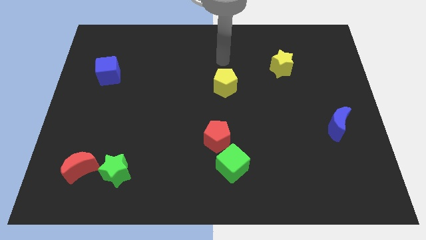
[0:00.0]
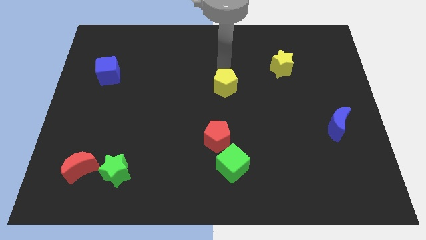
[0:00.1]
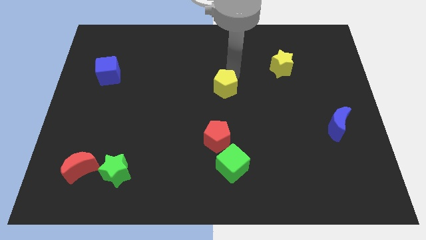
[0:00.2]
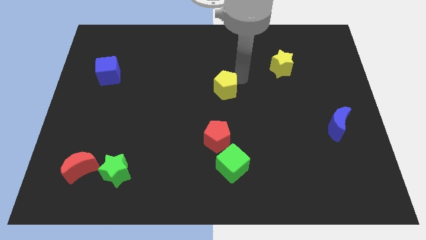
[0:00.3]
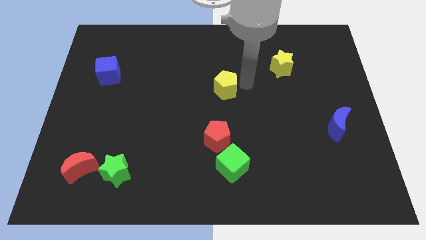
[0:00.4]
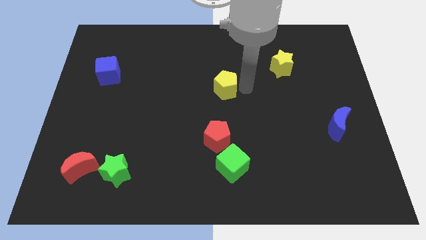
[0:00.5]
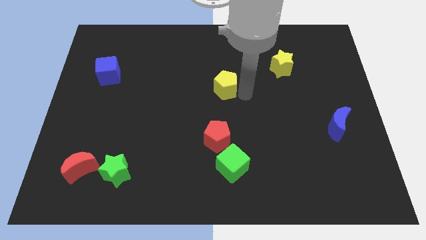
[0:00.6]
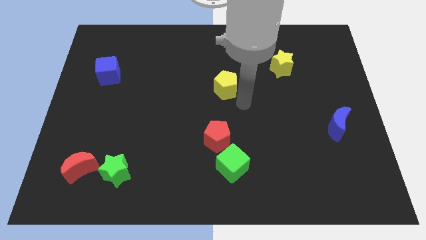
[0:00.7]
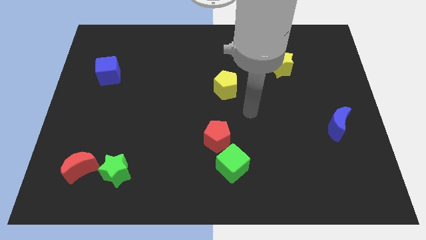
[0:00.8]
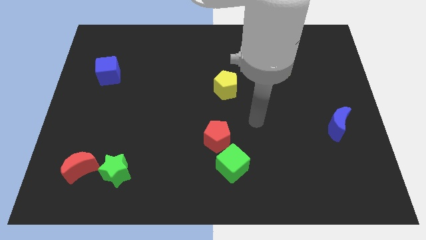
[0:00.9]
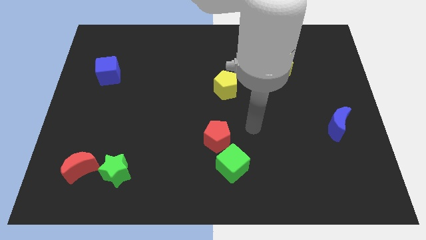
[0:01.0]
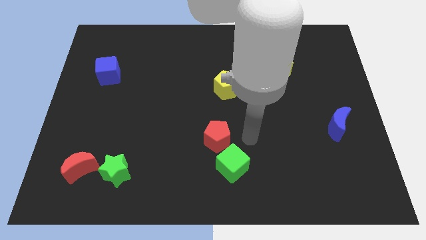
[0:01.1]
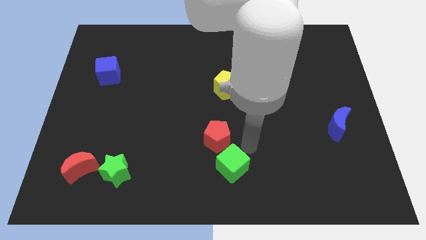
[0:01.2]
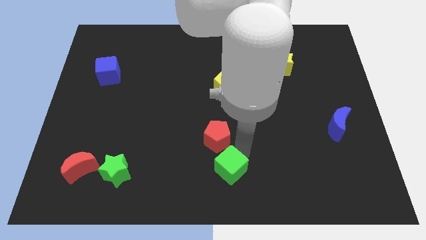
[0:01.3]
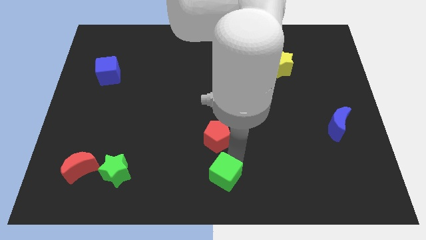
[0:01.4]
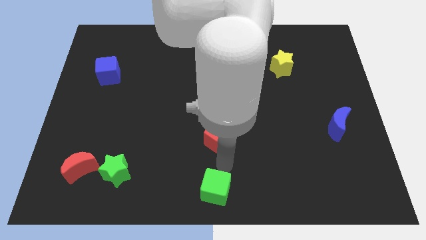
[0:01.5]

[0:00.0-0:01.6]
separate the red pentagon from the green cube

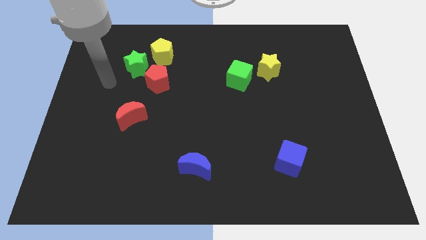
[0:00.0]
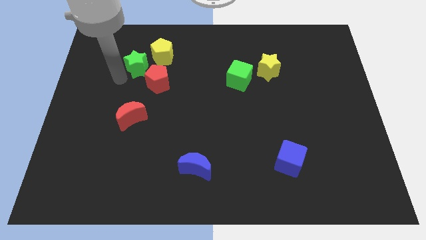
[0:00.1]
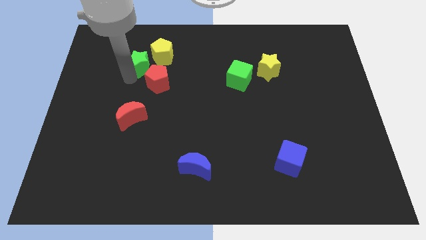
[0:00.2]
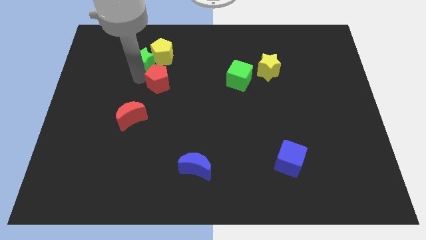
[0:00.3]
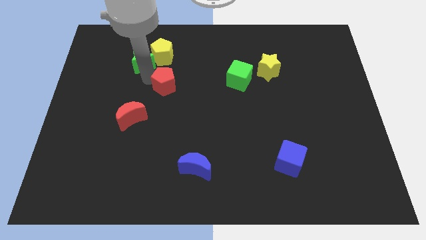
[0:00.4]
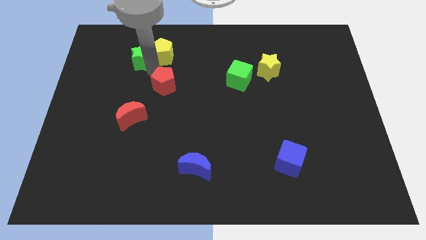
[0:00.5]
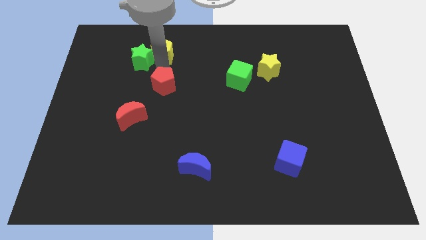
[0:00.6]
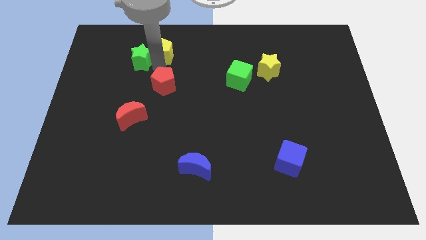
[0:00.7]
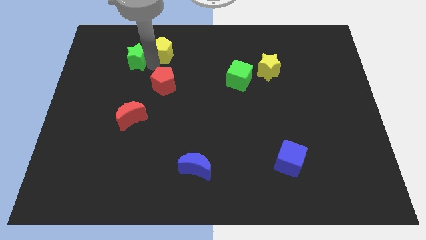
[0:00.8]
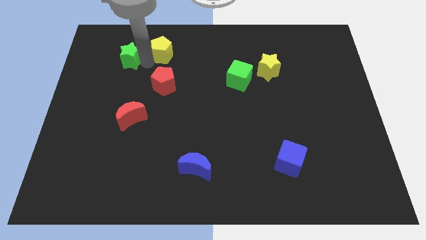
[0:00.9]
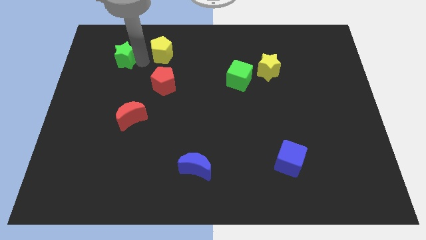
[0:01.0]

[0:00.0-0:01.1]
move the green star away from the yellow pentagon and red pentagon

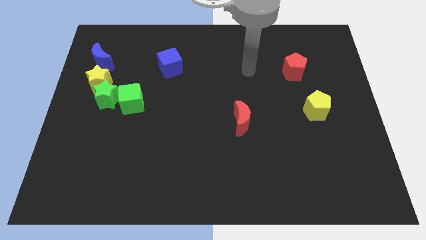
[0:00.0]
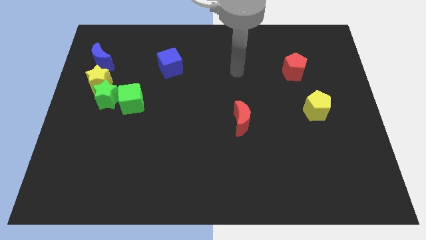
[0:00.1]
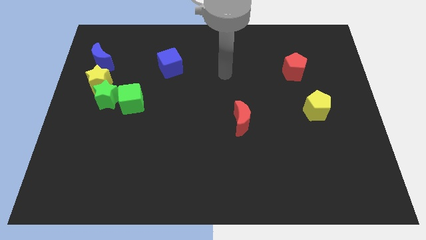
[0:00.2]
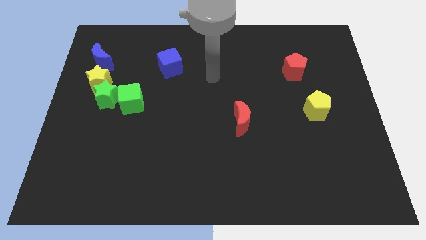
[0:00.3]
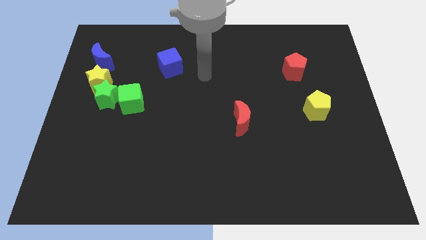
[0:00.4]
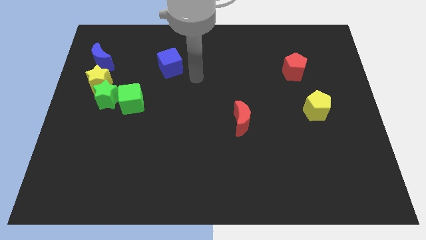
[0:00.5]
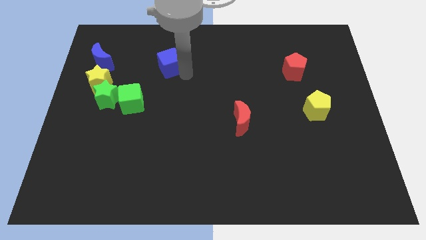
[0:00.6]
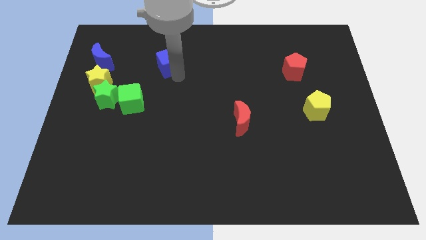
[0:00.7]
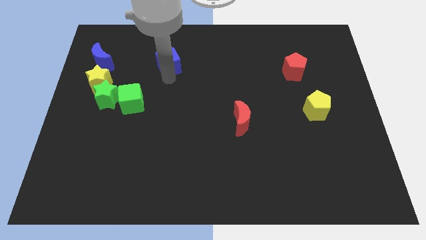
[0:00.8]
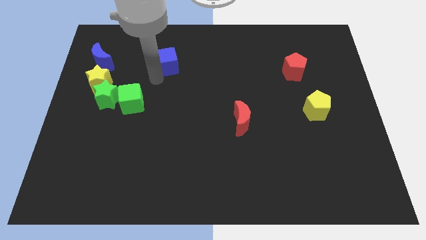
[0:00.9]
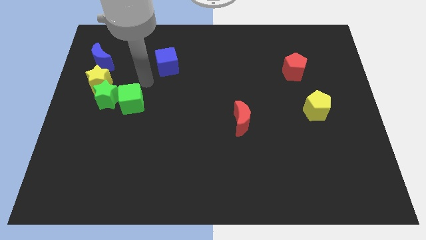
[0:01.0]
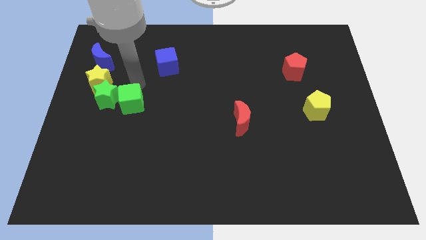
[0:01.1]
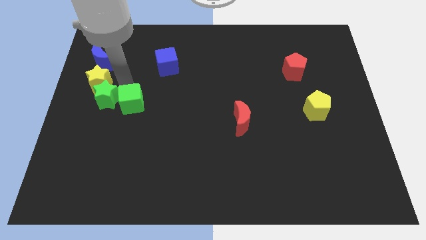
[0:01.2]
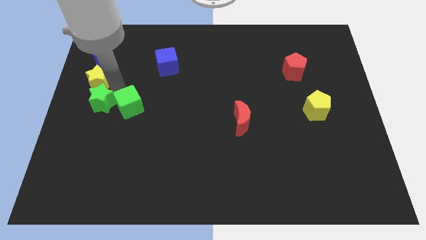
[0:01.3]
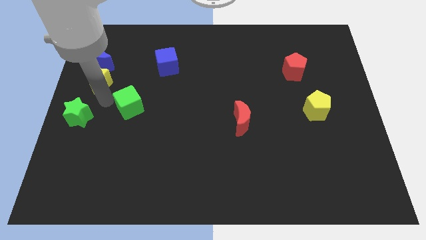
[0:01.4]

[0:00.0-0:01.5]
pull the green cube apart from the green star

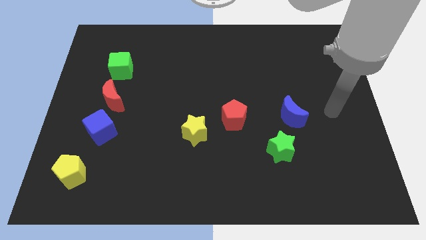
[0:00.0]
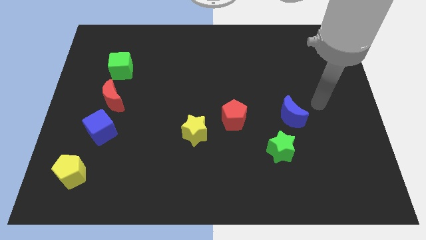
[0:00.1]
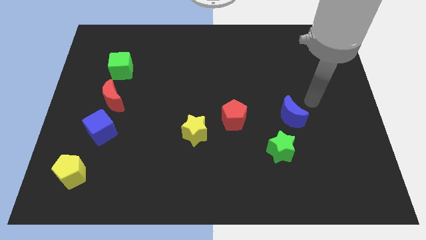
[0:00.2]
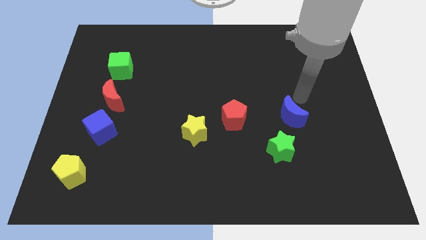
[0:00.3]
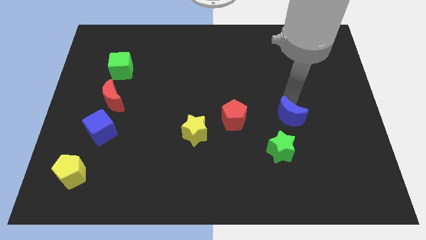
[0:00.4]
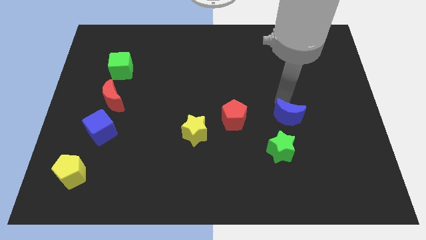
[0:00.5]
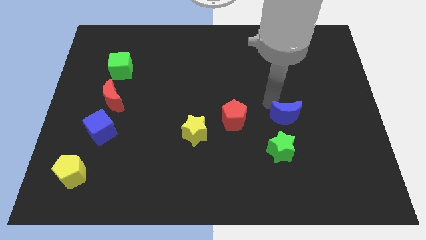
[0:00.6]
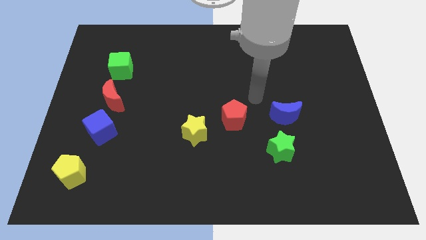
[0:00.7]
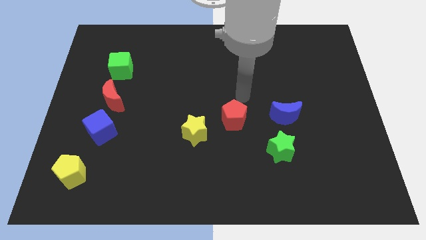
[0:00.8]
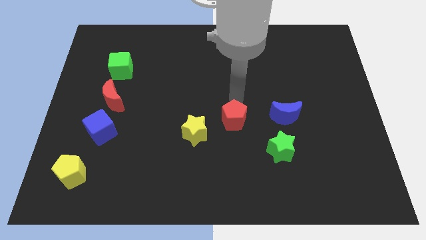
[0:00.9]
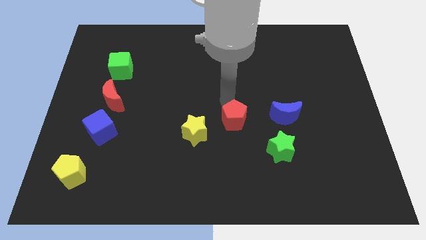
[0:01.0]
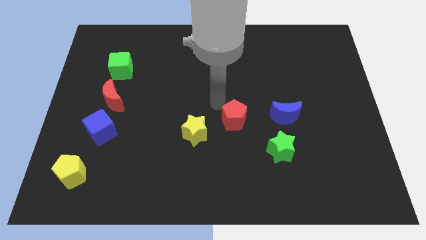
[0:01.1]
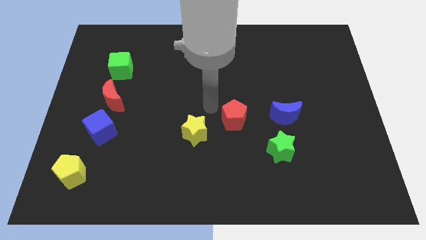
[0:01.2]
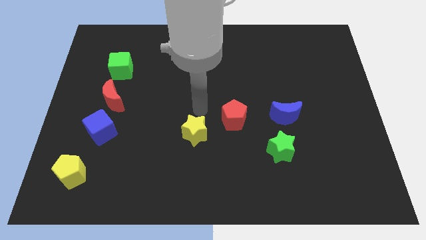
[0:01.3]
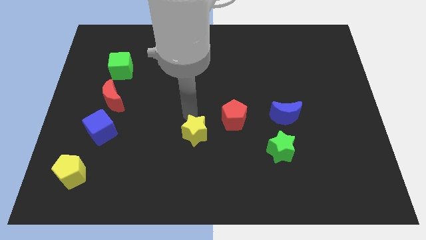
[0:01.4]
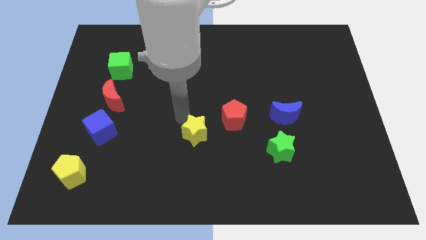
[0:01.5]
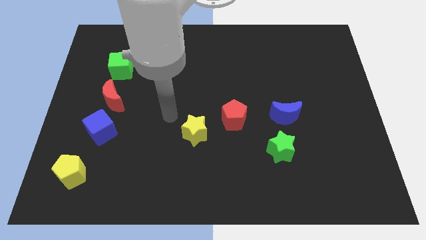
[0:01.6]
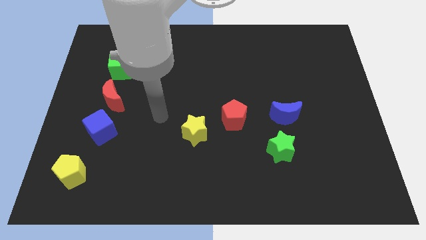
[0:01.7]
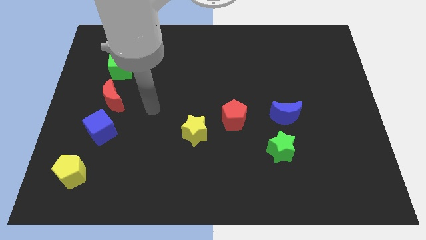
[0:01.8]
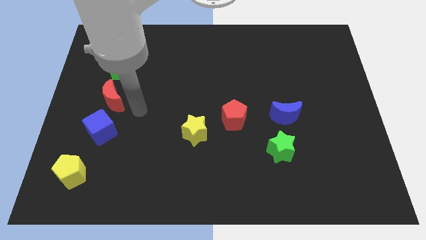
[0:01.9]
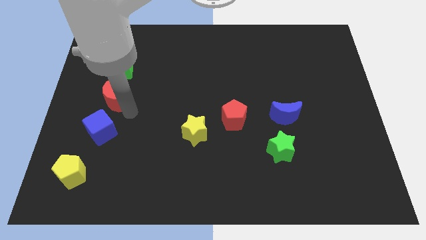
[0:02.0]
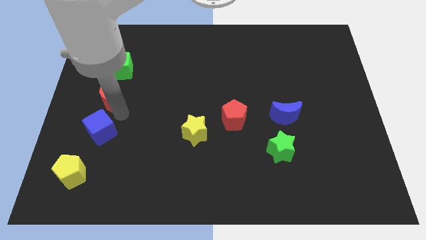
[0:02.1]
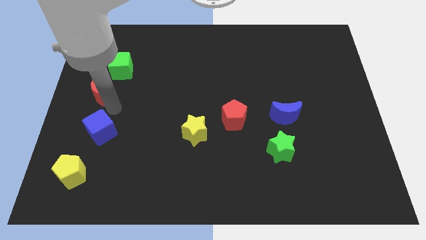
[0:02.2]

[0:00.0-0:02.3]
pull the blue cube apart from the red moon

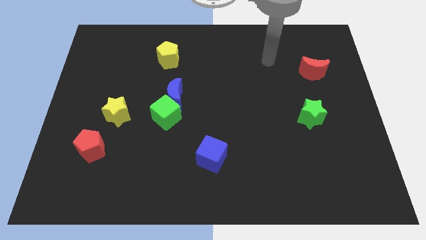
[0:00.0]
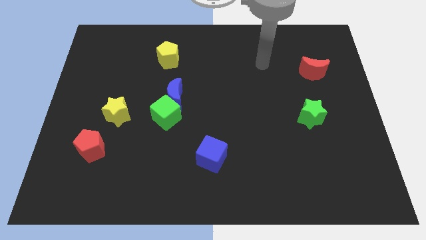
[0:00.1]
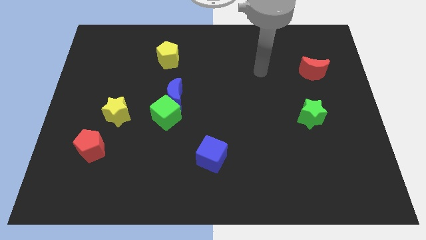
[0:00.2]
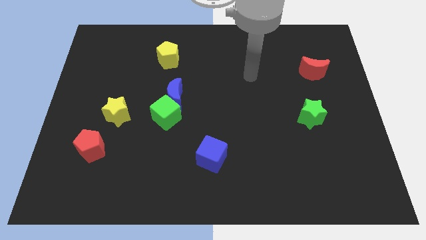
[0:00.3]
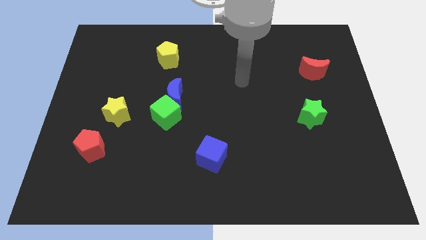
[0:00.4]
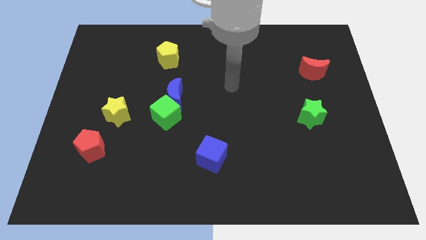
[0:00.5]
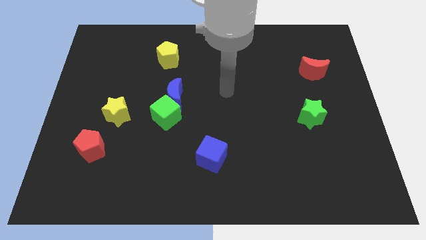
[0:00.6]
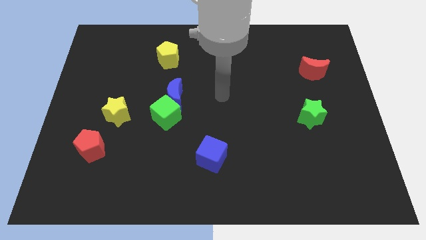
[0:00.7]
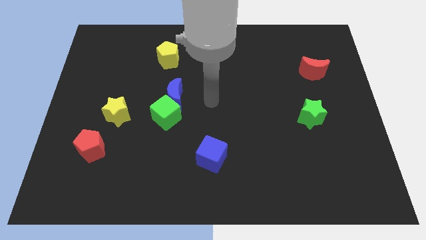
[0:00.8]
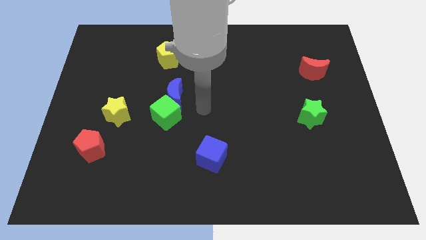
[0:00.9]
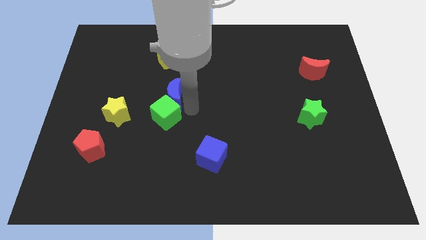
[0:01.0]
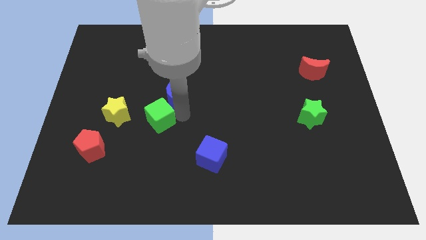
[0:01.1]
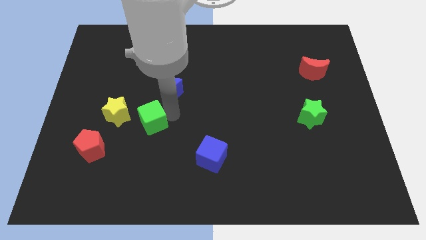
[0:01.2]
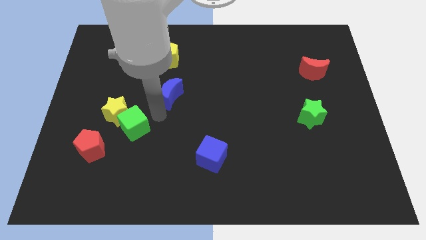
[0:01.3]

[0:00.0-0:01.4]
separate the blue moon from the green cube

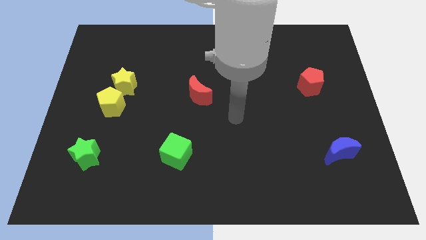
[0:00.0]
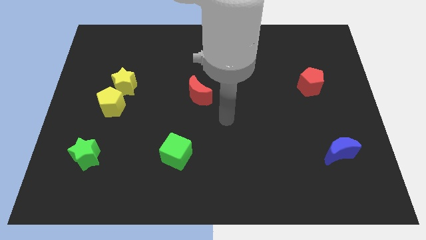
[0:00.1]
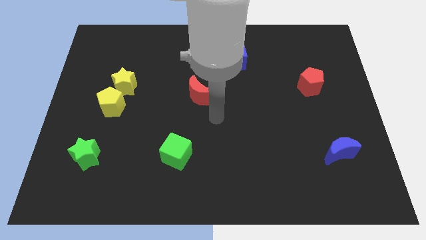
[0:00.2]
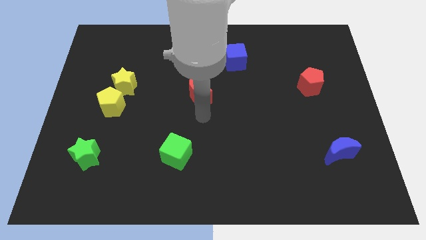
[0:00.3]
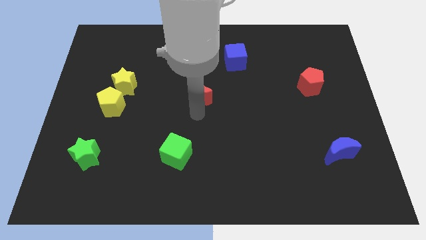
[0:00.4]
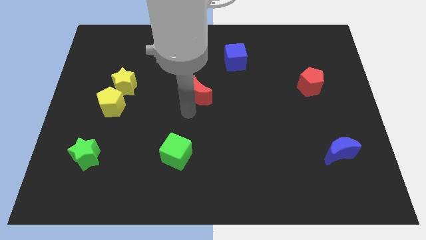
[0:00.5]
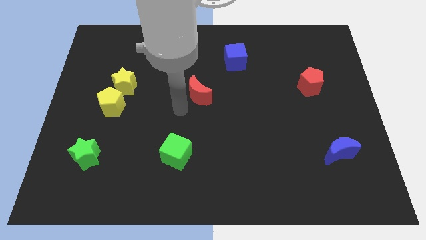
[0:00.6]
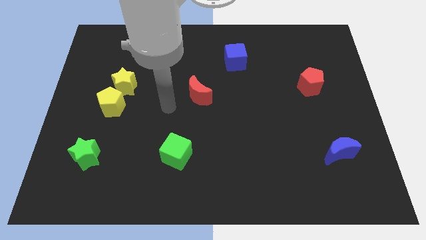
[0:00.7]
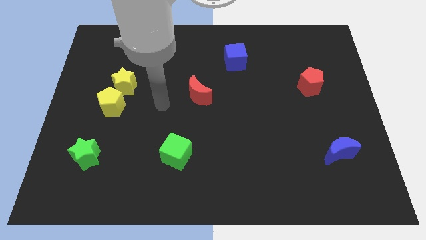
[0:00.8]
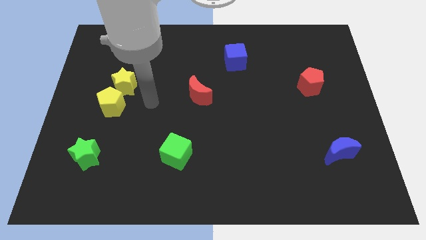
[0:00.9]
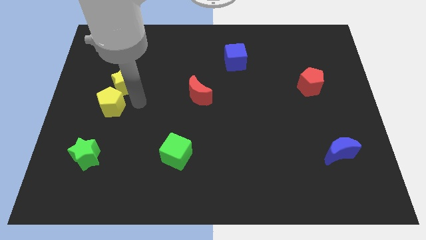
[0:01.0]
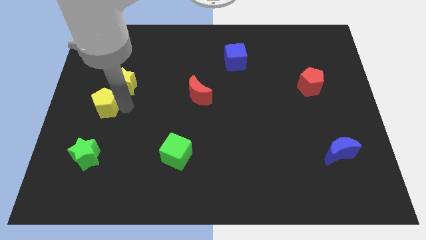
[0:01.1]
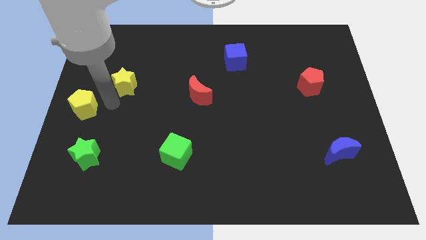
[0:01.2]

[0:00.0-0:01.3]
move the yellow star away from the yellow pentagon
